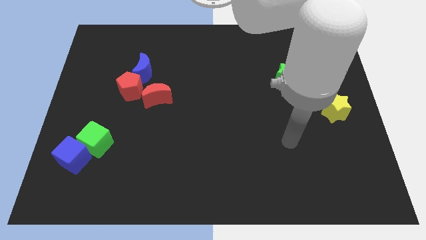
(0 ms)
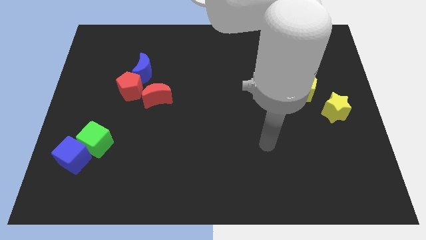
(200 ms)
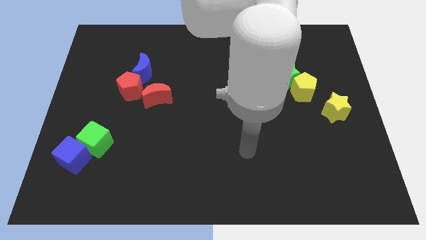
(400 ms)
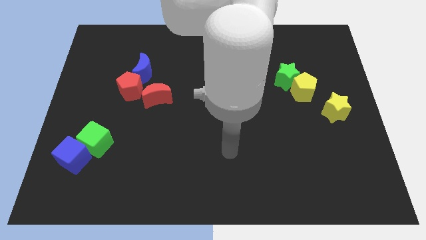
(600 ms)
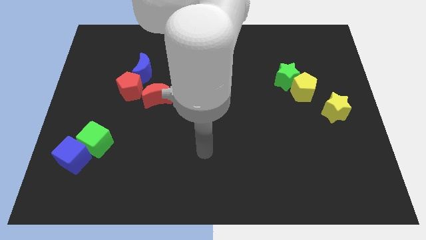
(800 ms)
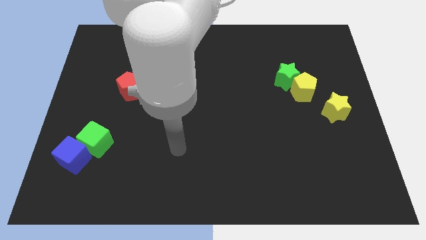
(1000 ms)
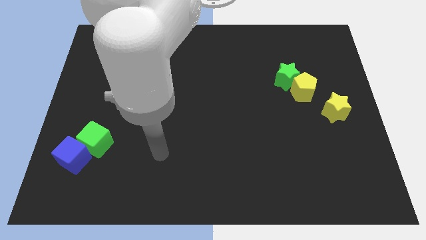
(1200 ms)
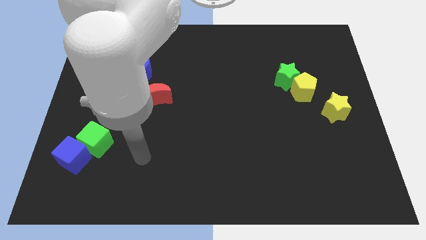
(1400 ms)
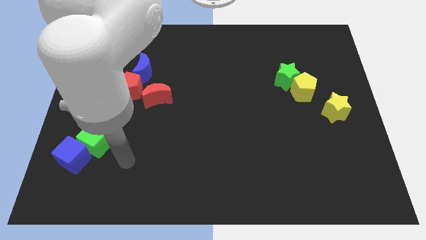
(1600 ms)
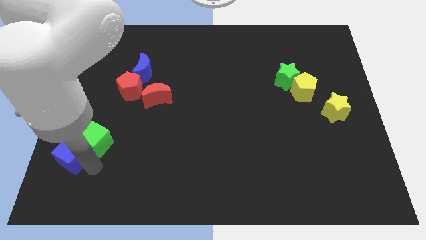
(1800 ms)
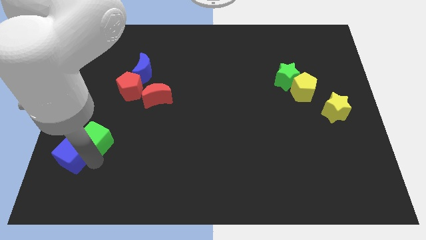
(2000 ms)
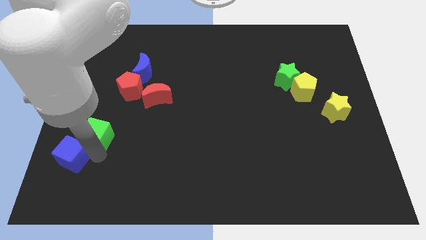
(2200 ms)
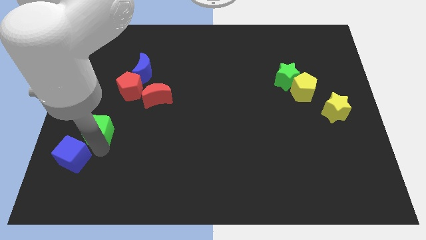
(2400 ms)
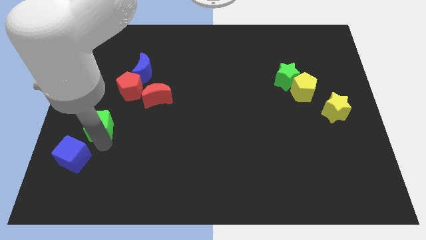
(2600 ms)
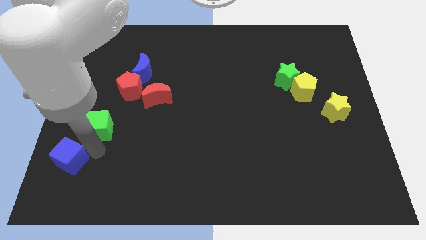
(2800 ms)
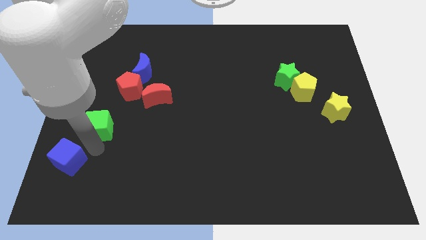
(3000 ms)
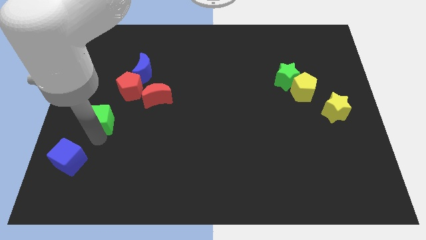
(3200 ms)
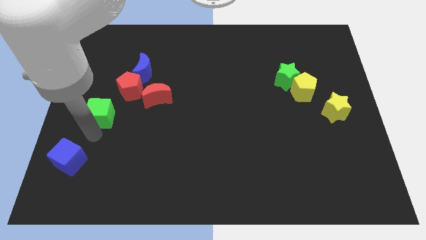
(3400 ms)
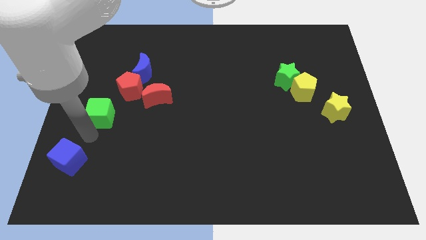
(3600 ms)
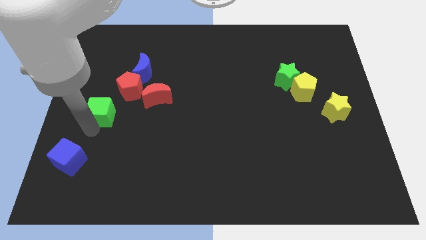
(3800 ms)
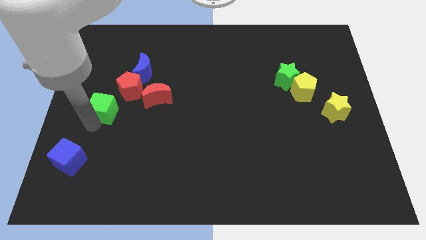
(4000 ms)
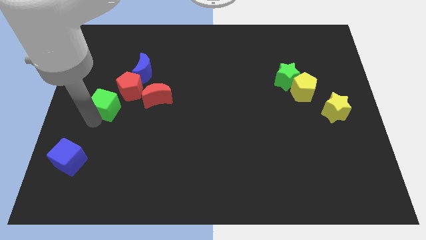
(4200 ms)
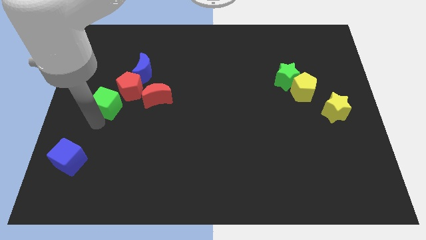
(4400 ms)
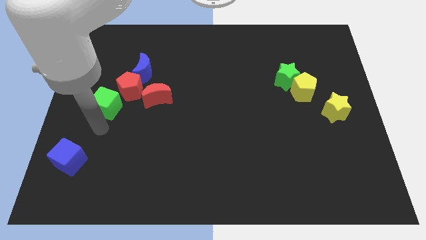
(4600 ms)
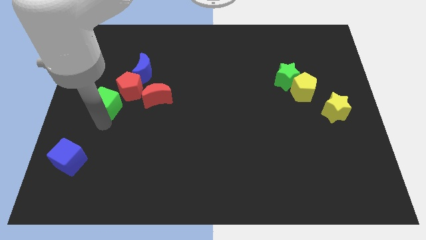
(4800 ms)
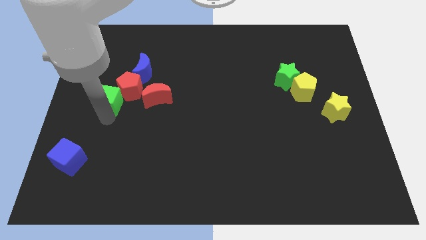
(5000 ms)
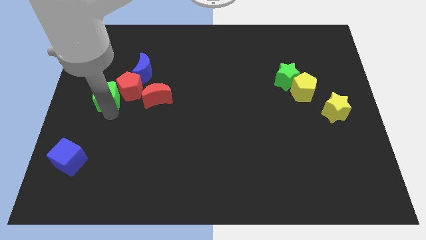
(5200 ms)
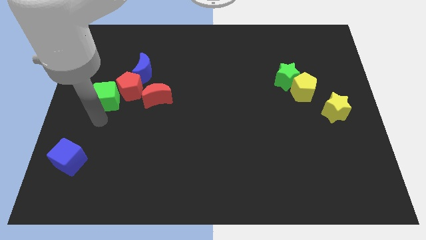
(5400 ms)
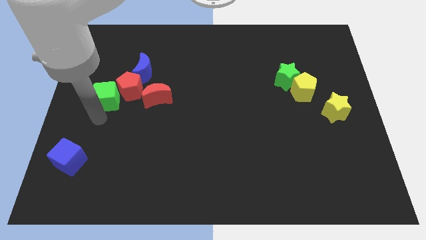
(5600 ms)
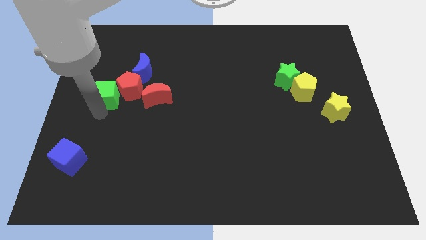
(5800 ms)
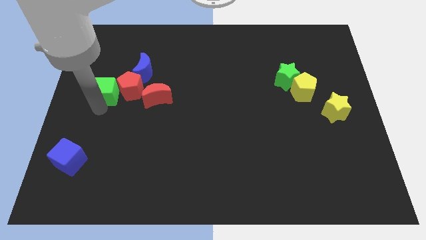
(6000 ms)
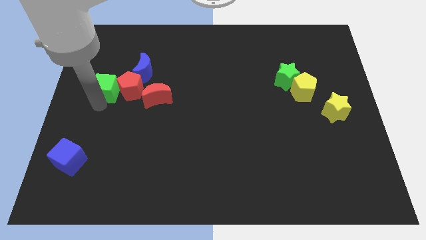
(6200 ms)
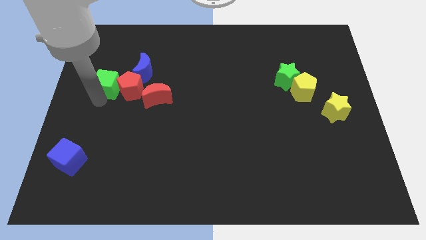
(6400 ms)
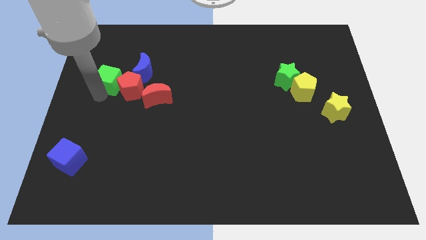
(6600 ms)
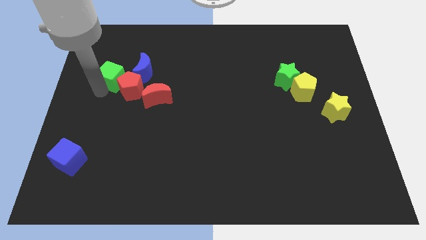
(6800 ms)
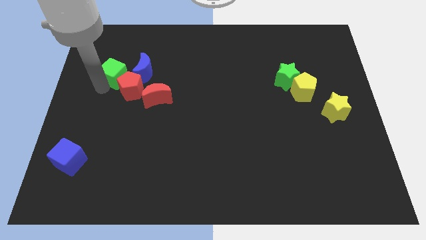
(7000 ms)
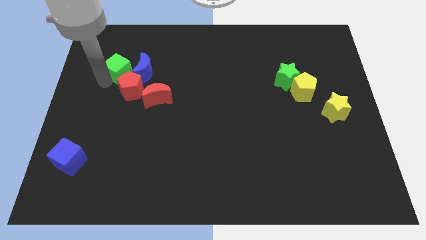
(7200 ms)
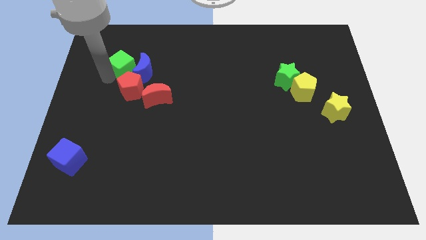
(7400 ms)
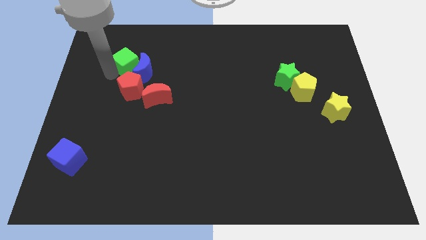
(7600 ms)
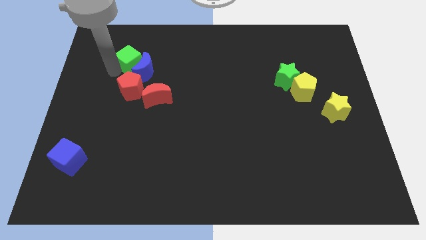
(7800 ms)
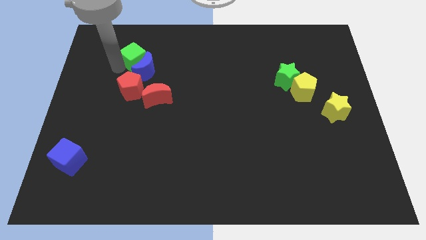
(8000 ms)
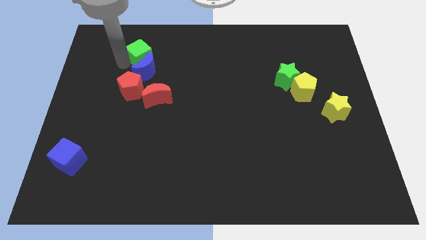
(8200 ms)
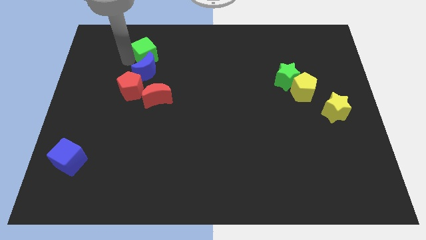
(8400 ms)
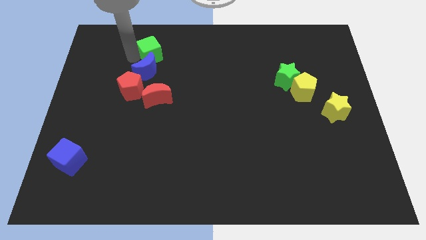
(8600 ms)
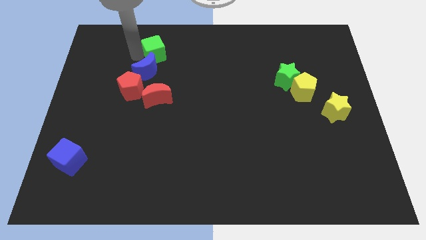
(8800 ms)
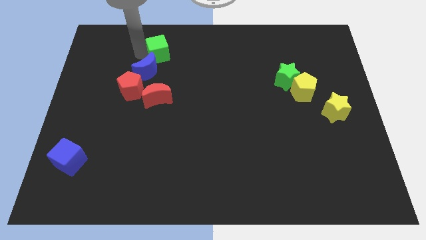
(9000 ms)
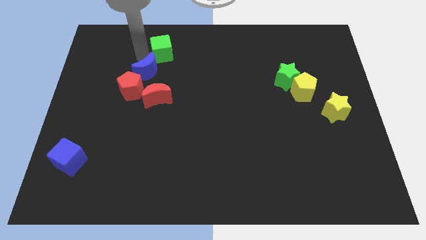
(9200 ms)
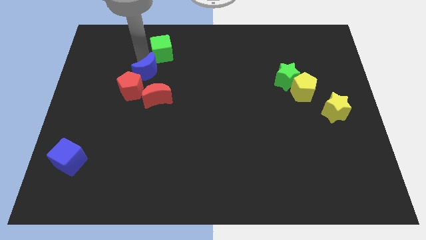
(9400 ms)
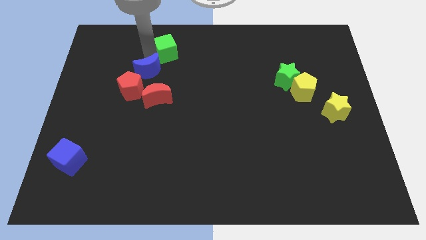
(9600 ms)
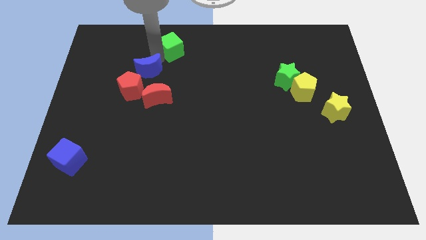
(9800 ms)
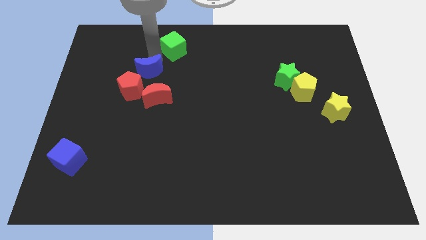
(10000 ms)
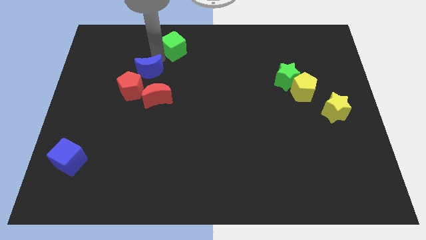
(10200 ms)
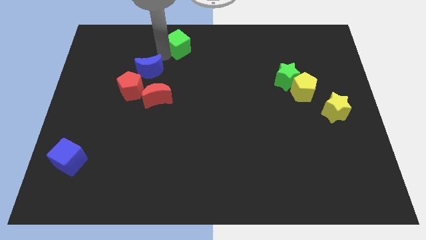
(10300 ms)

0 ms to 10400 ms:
slide the green cube to the top side
